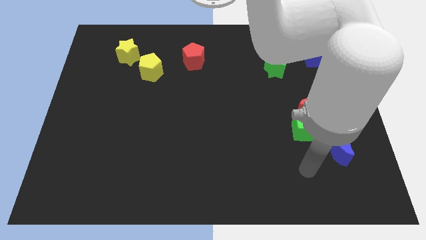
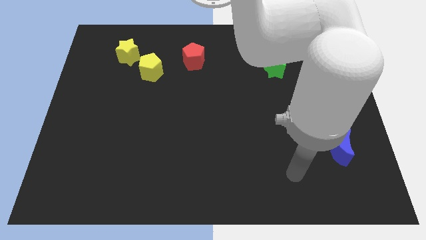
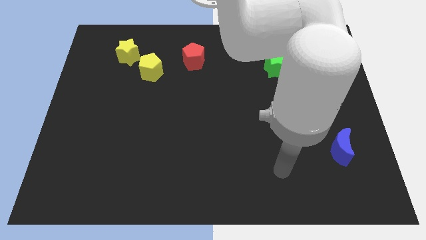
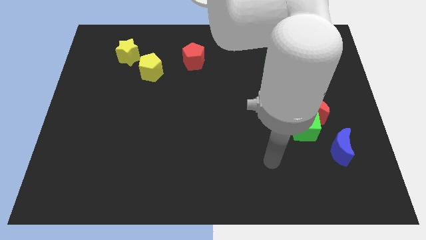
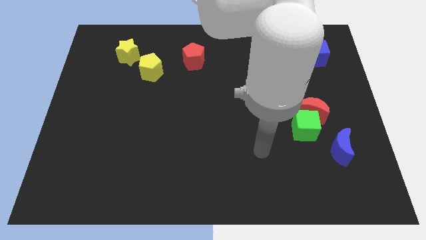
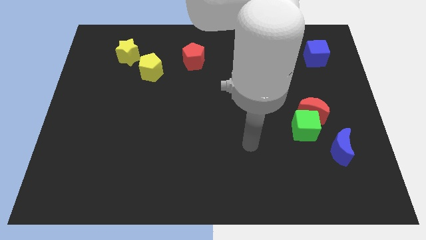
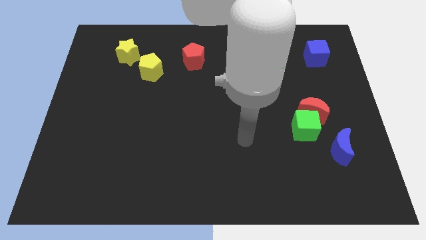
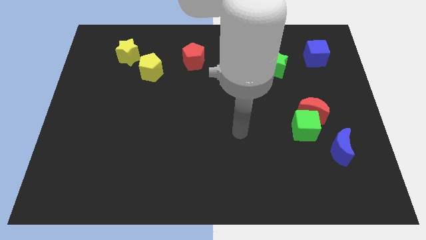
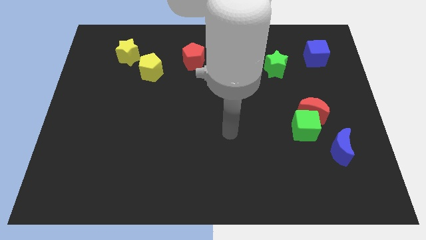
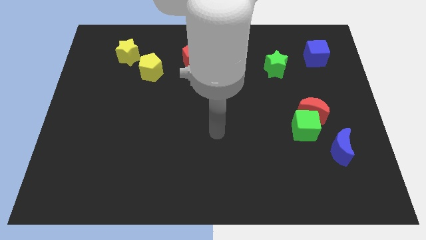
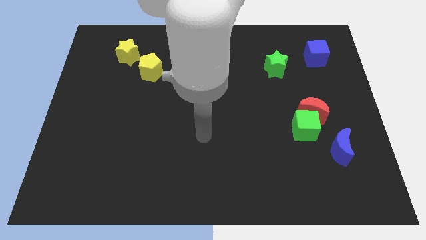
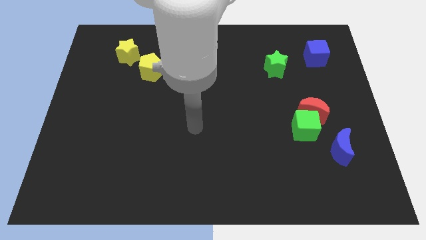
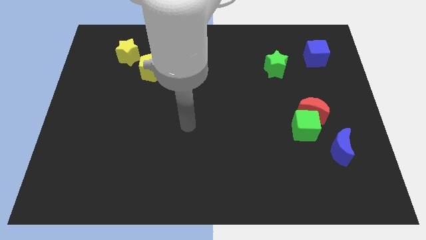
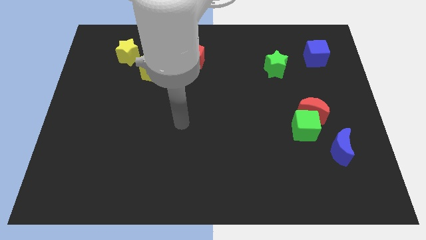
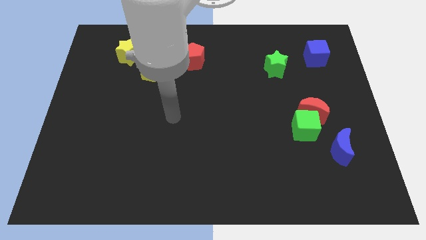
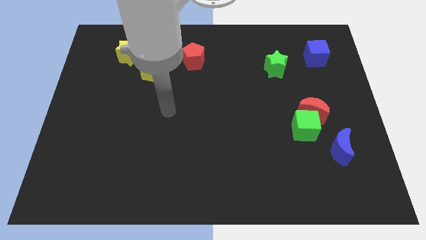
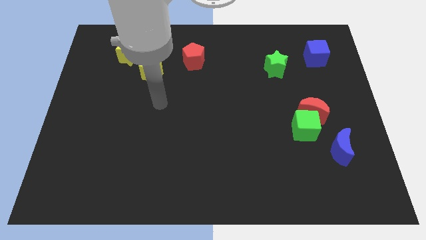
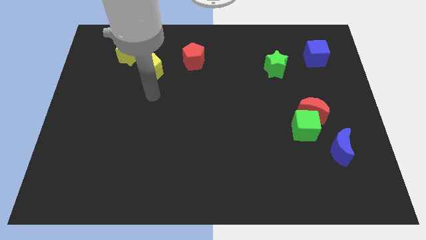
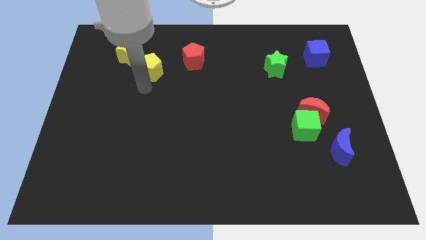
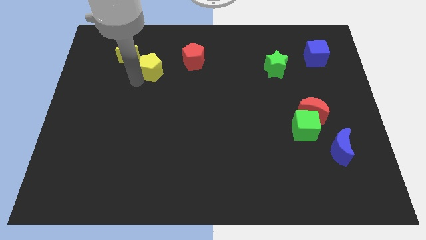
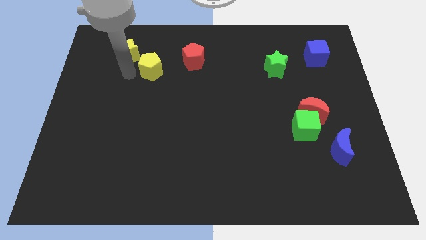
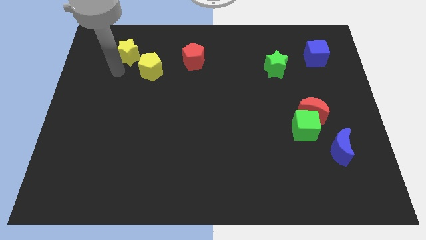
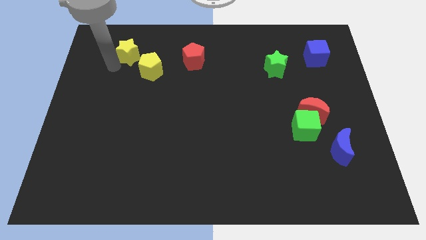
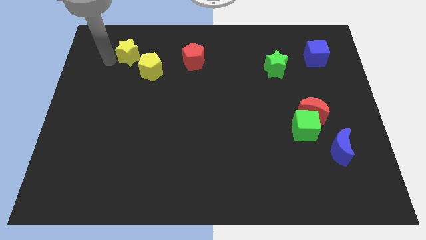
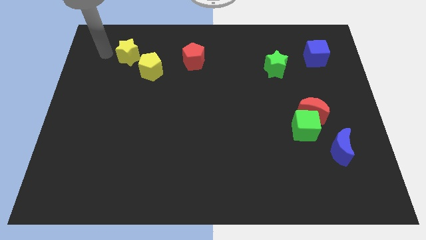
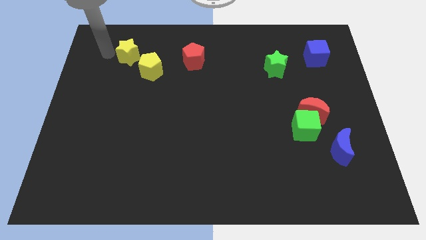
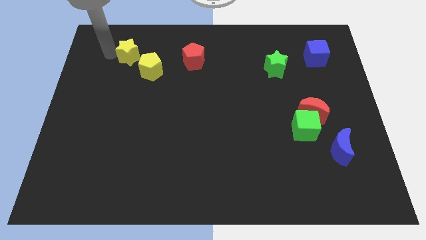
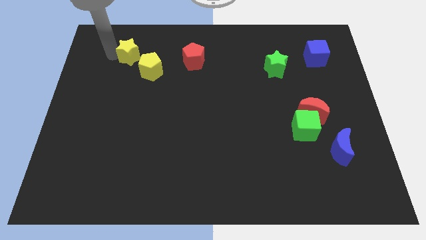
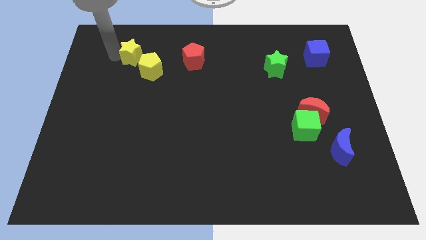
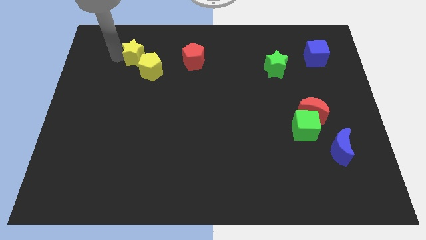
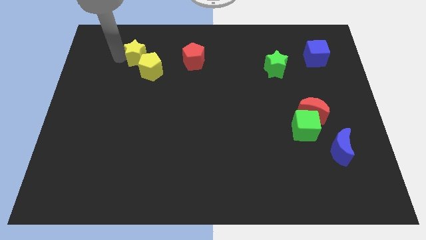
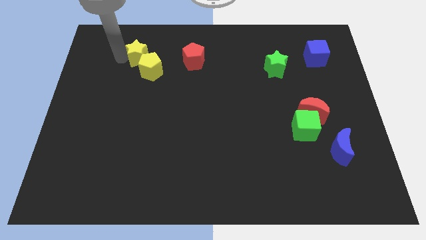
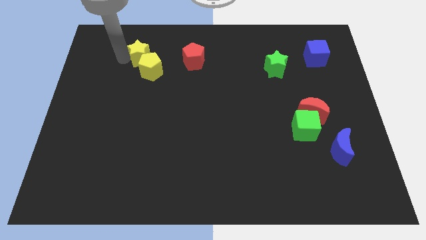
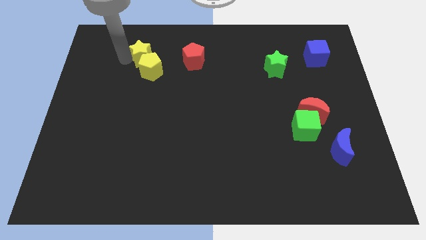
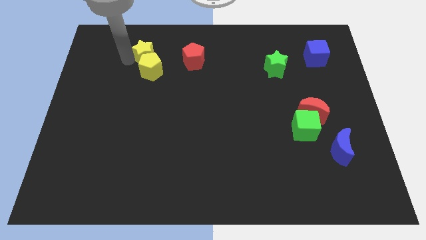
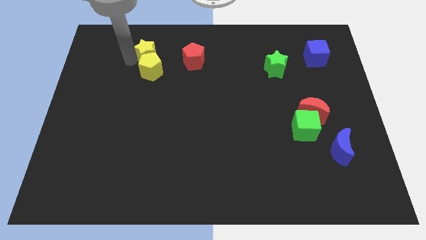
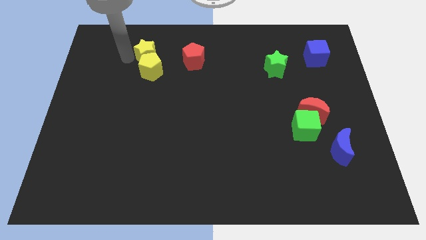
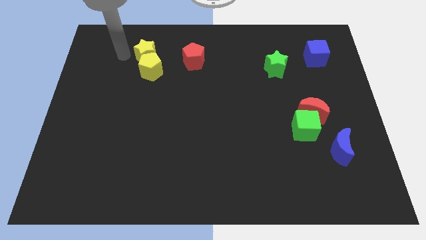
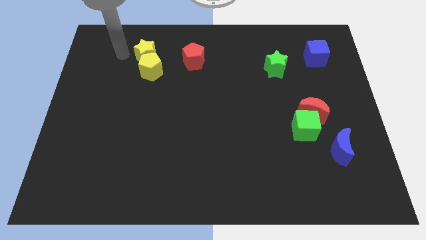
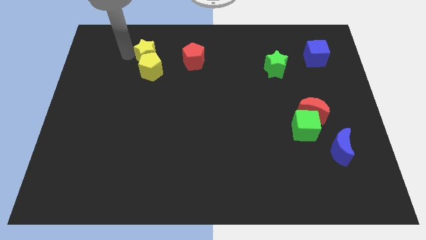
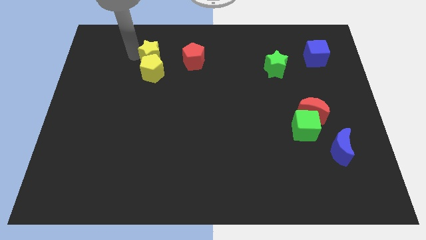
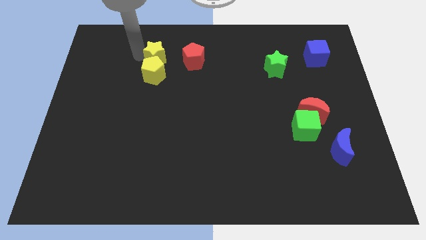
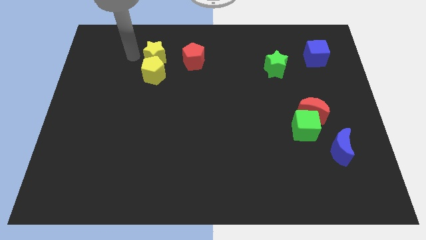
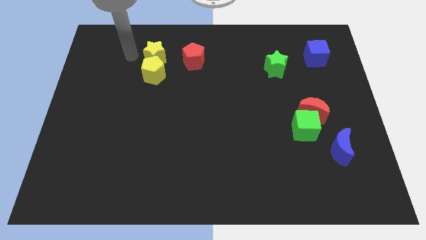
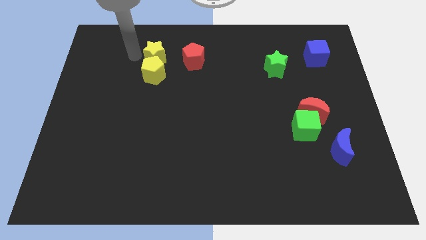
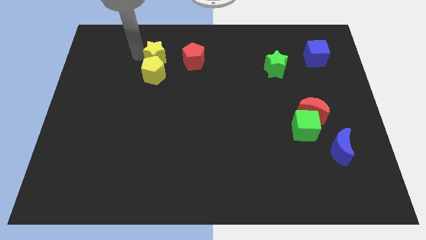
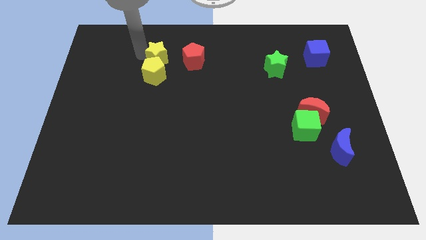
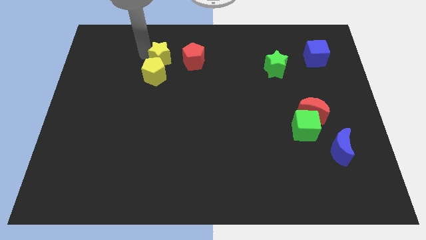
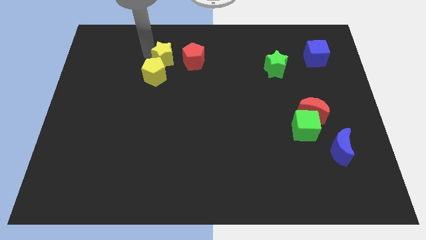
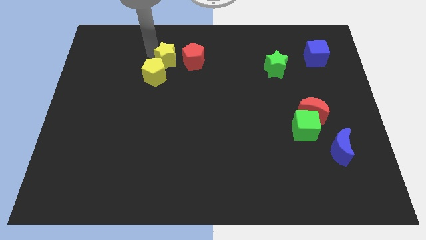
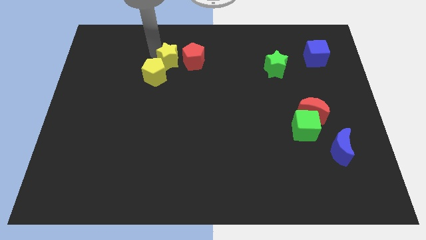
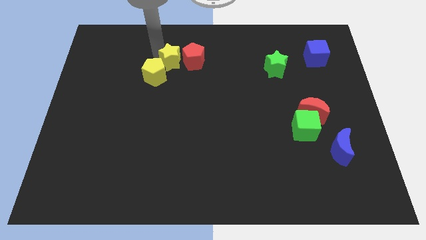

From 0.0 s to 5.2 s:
slide the yellow star towards the red pentagon

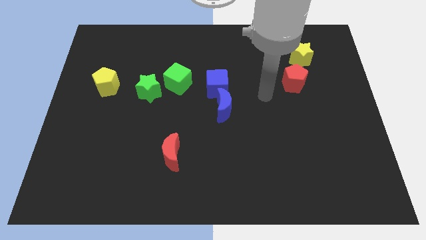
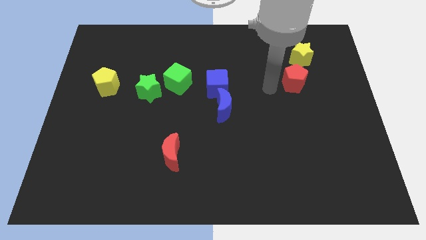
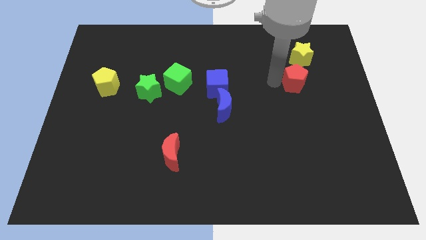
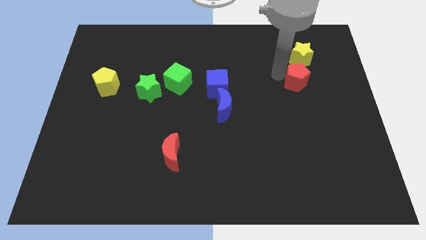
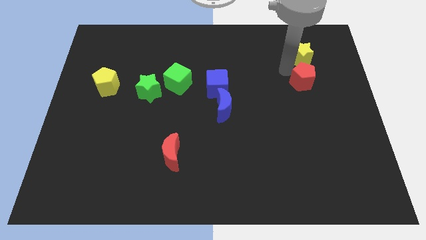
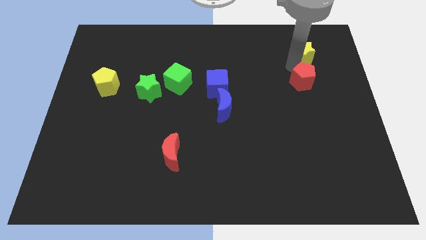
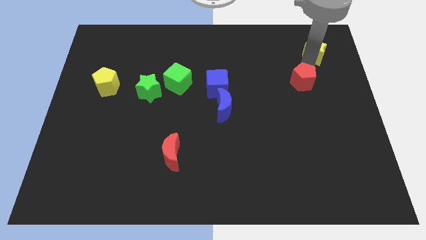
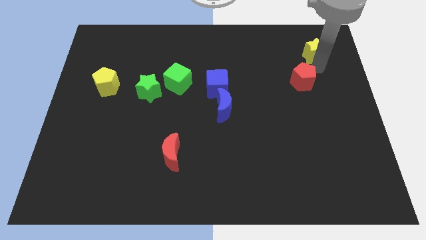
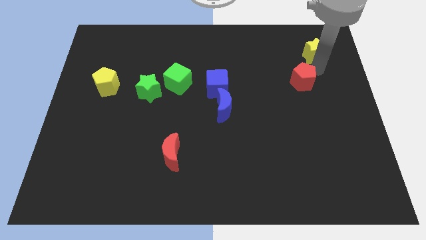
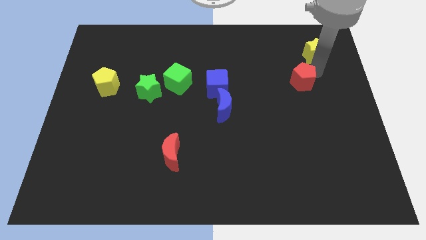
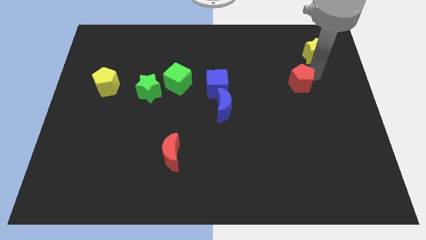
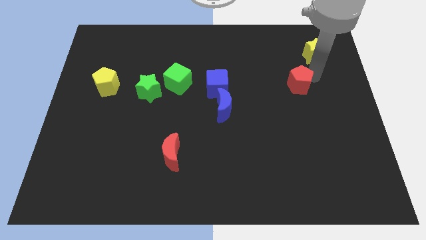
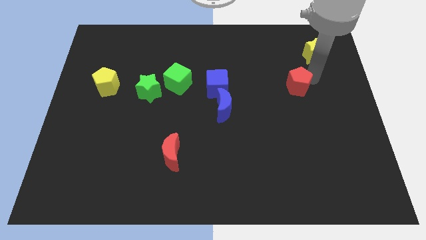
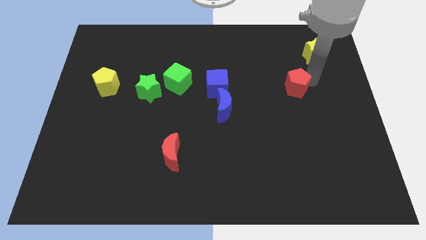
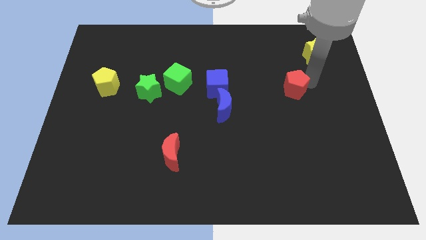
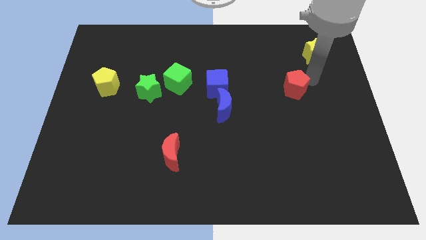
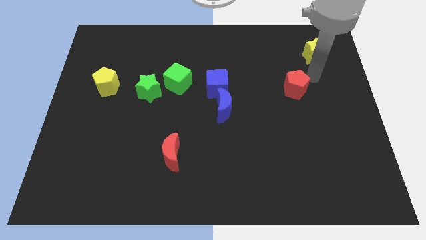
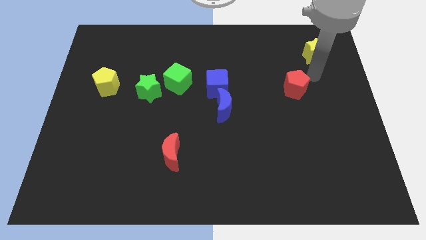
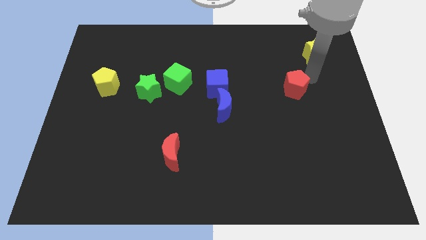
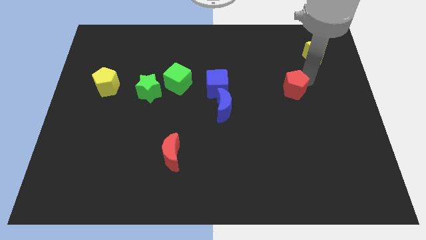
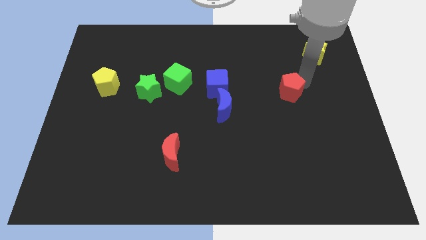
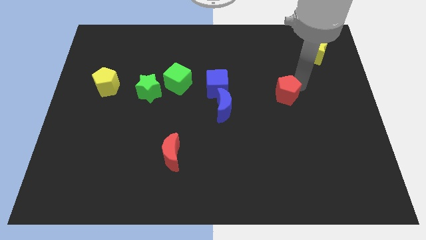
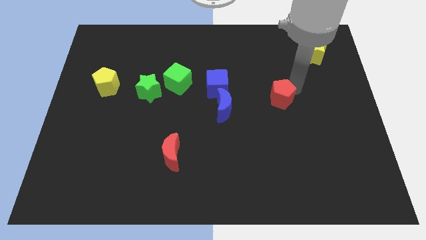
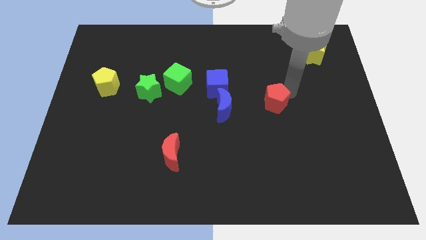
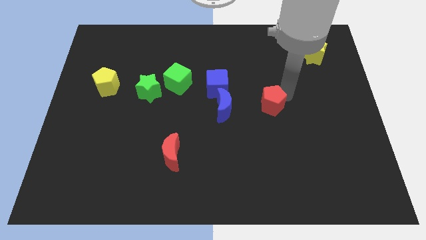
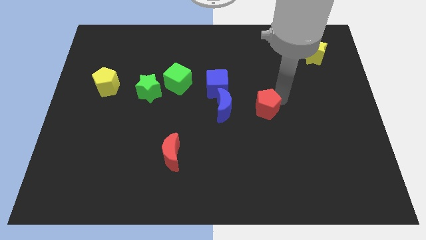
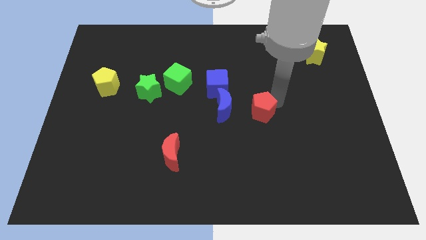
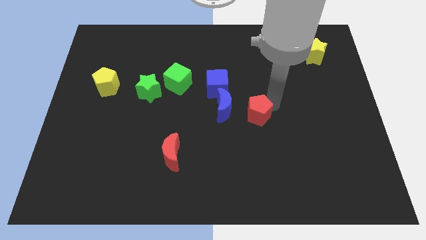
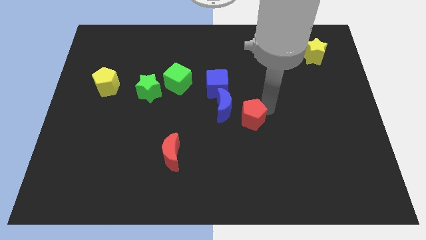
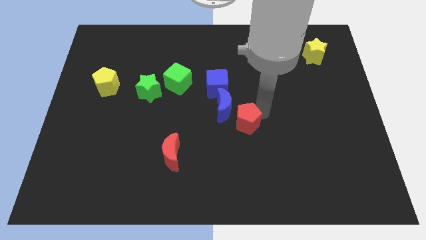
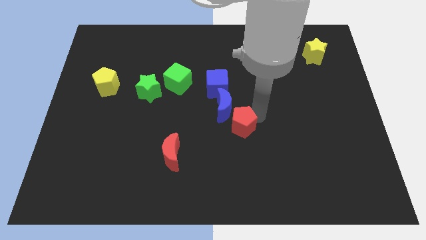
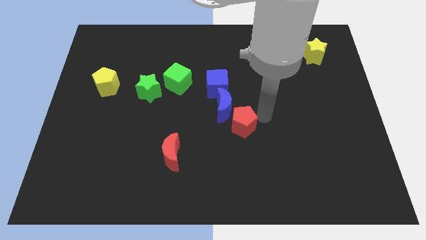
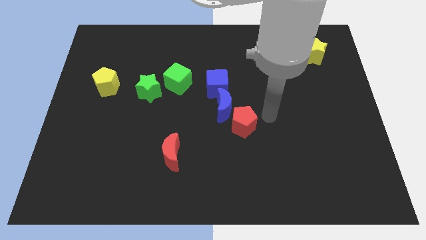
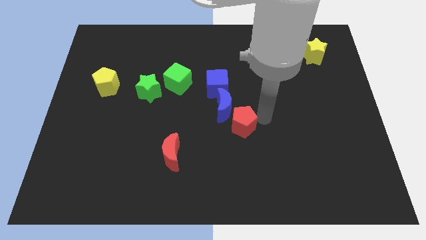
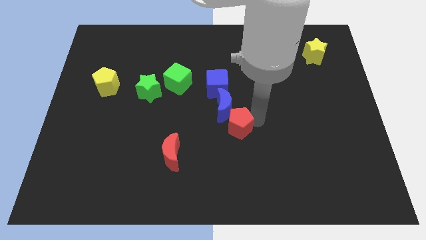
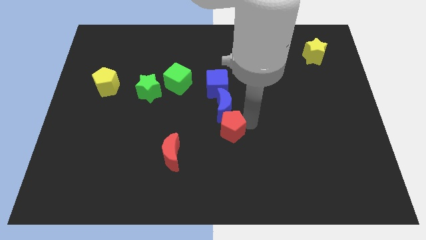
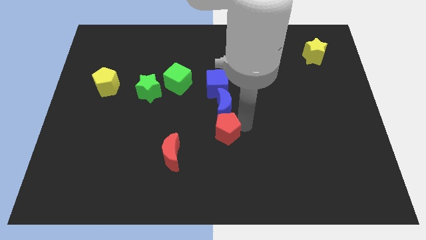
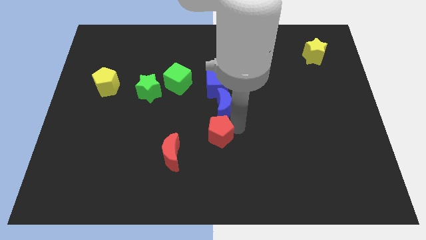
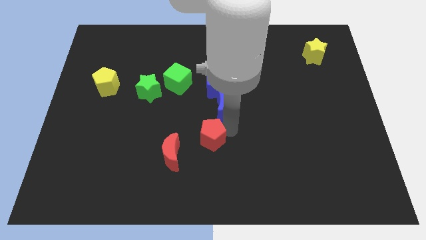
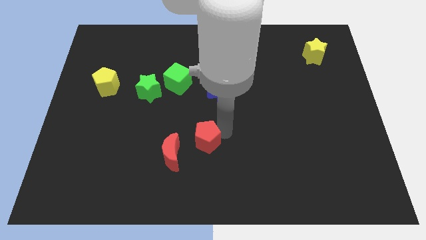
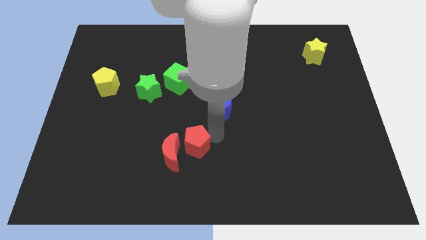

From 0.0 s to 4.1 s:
put the red pentagon to the red moon
